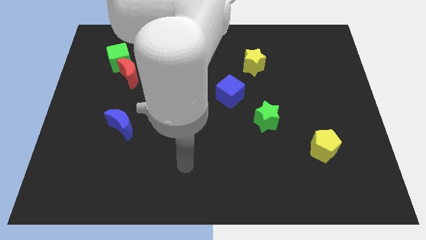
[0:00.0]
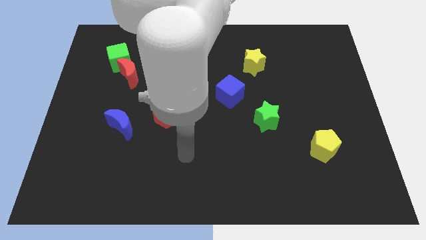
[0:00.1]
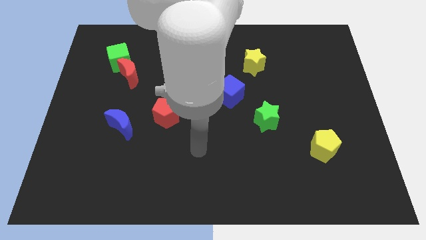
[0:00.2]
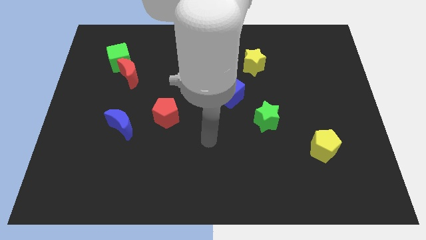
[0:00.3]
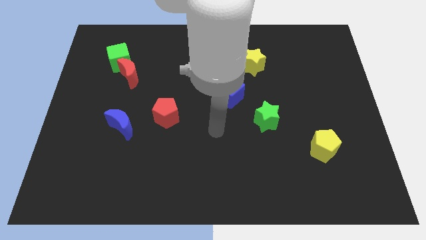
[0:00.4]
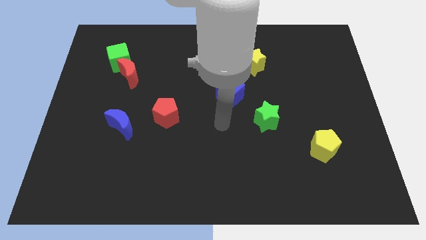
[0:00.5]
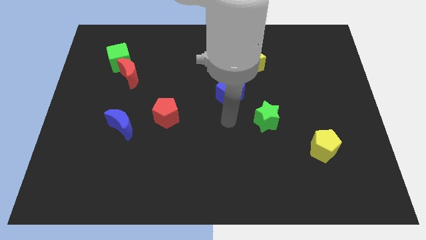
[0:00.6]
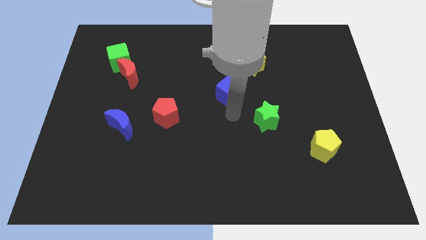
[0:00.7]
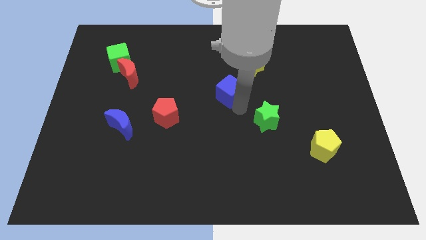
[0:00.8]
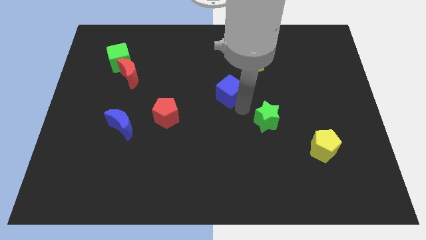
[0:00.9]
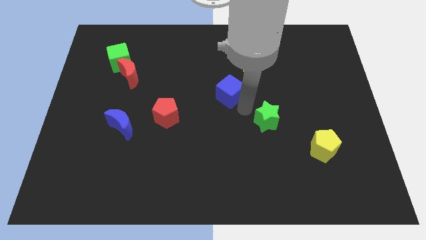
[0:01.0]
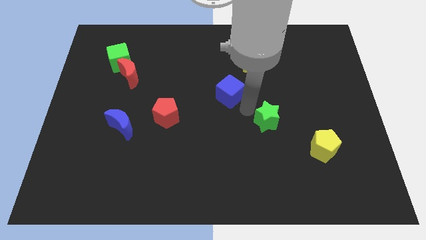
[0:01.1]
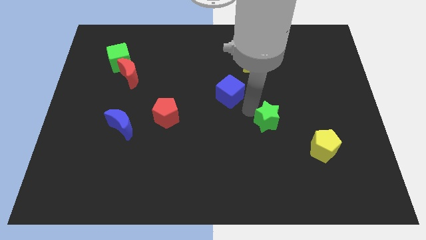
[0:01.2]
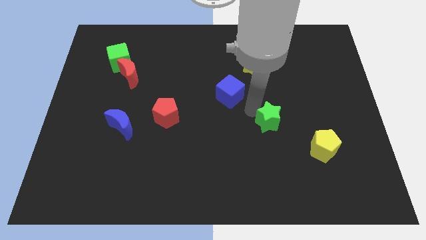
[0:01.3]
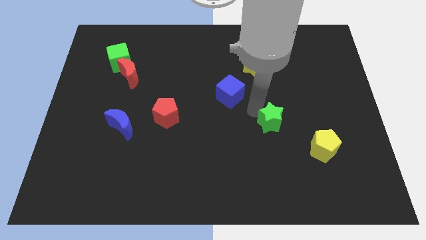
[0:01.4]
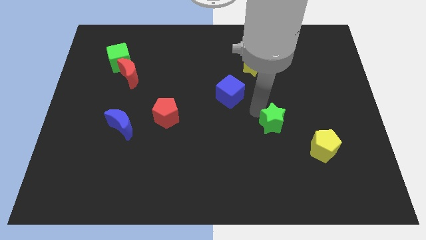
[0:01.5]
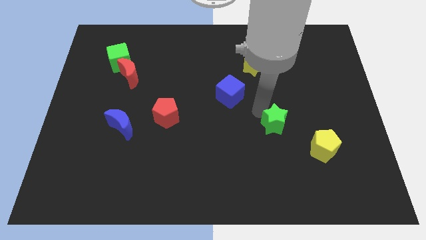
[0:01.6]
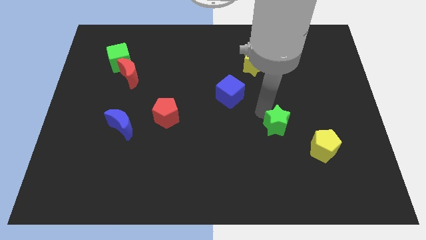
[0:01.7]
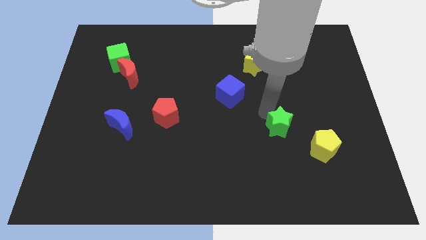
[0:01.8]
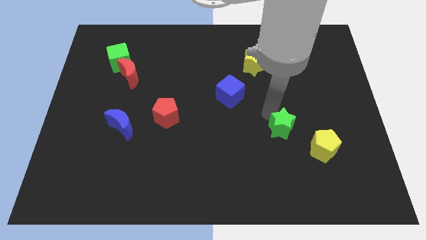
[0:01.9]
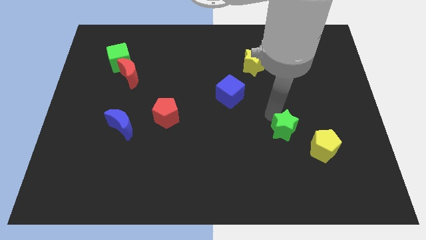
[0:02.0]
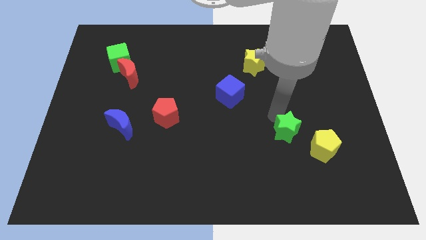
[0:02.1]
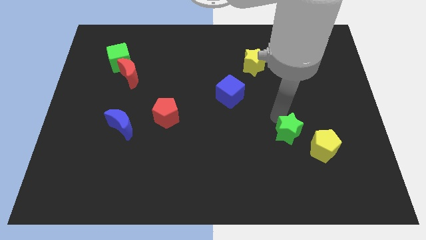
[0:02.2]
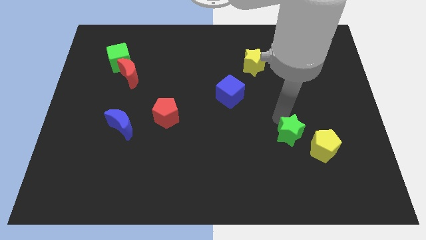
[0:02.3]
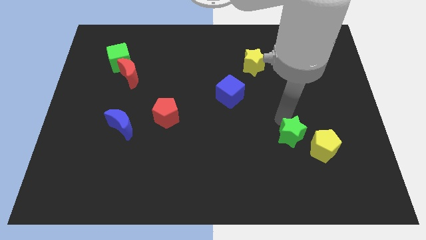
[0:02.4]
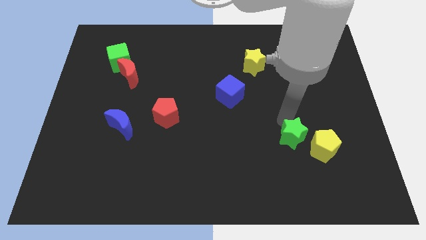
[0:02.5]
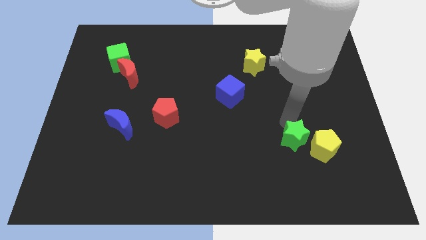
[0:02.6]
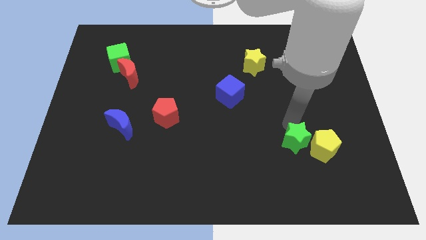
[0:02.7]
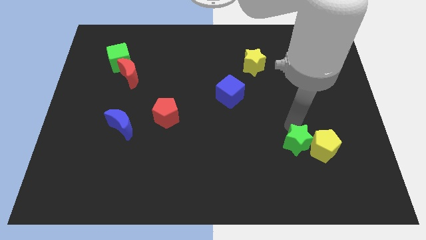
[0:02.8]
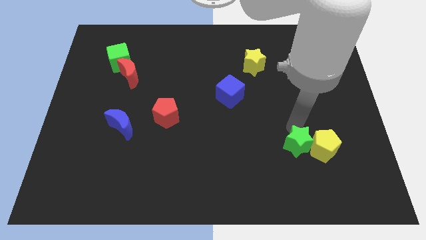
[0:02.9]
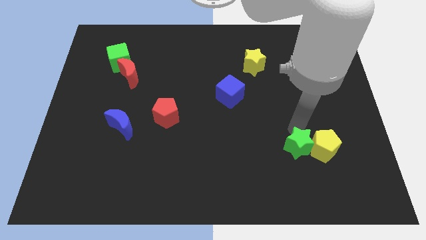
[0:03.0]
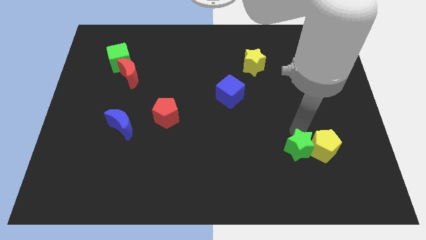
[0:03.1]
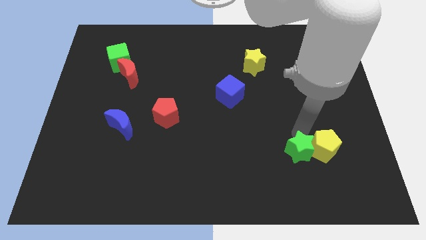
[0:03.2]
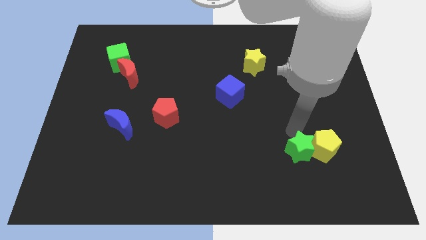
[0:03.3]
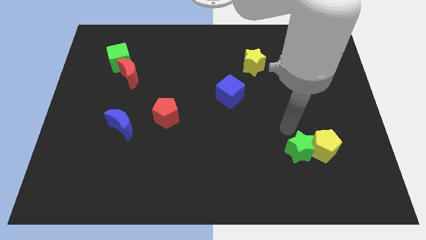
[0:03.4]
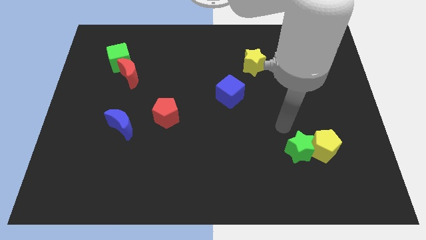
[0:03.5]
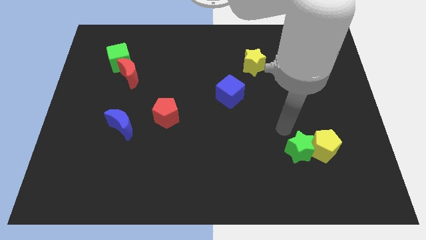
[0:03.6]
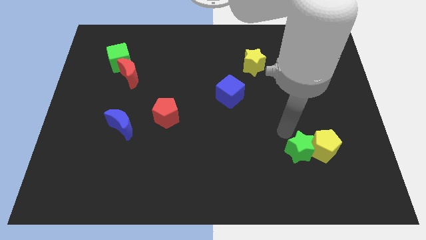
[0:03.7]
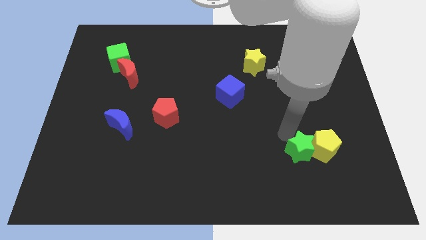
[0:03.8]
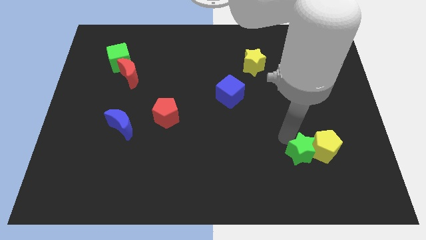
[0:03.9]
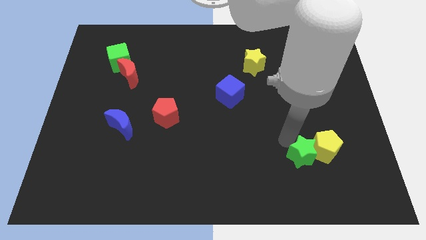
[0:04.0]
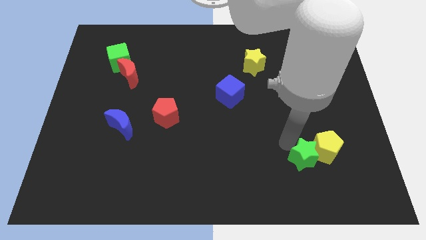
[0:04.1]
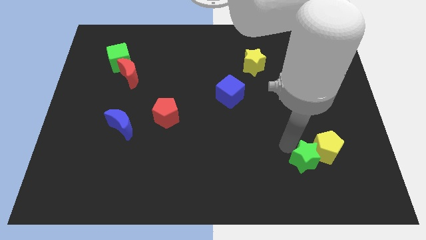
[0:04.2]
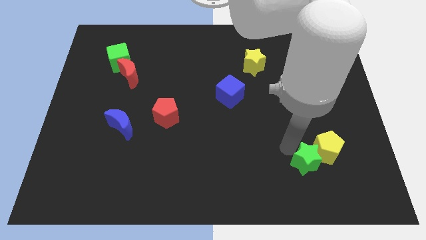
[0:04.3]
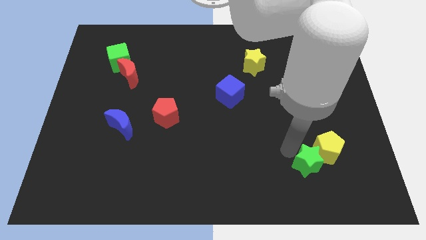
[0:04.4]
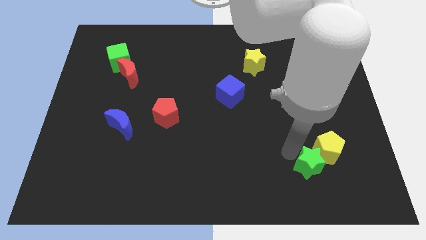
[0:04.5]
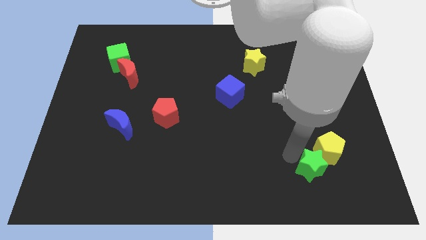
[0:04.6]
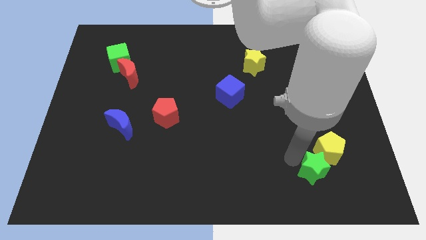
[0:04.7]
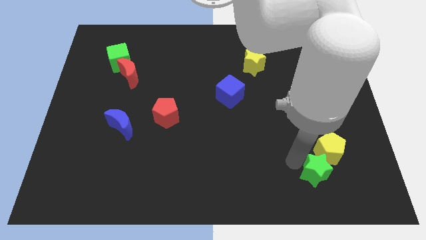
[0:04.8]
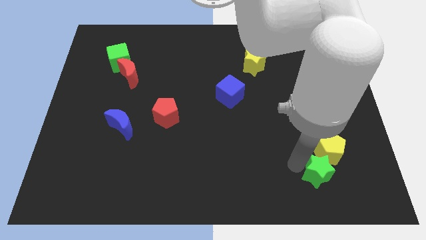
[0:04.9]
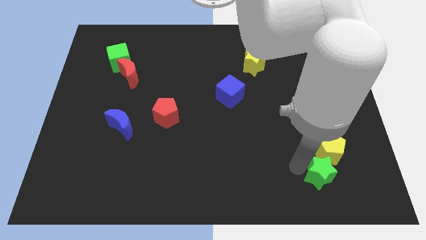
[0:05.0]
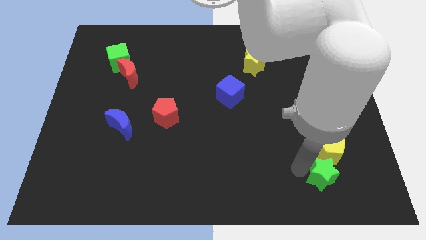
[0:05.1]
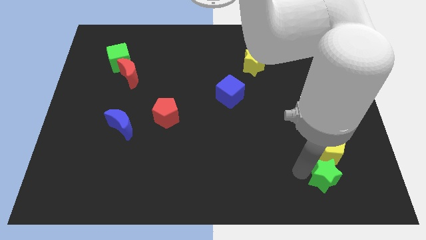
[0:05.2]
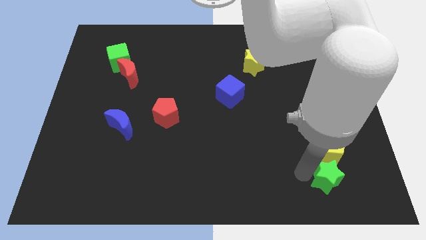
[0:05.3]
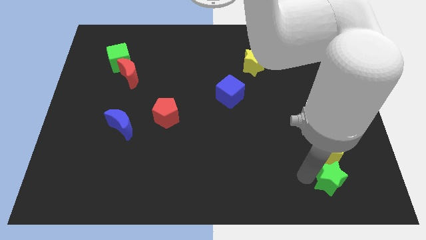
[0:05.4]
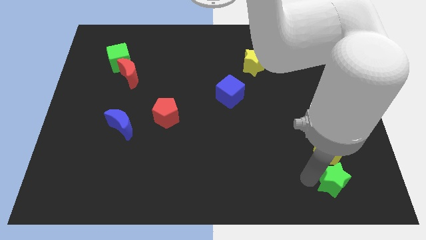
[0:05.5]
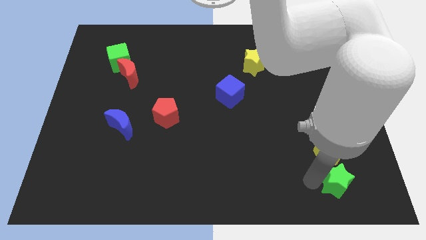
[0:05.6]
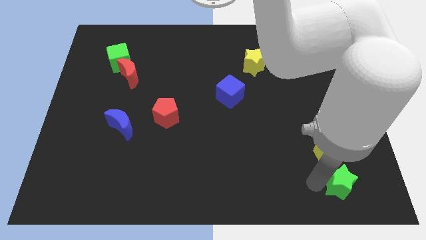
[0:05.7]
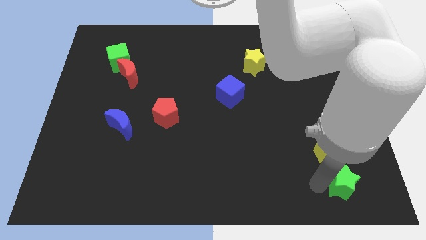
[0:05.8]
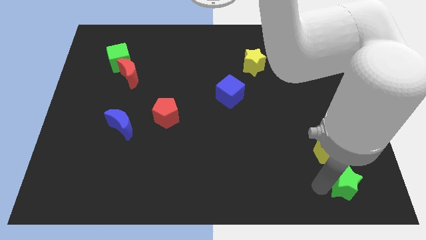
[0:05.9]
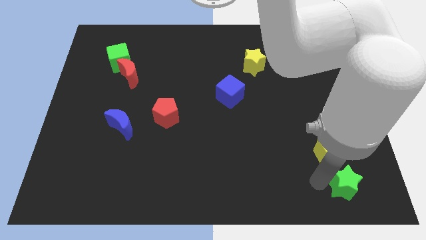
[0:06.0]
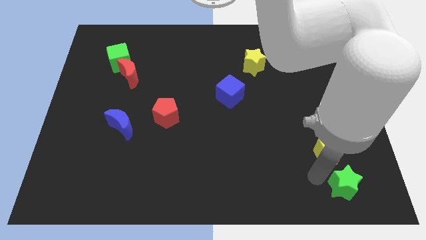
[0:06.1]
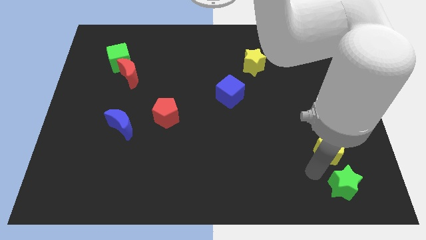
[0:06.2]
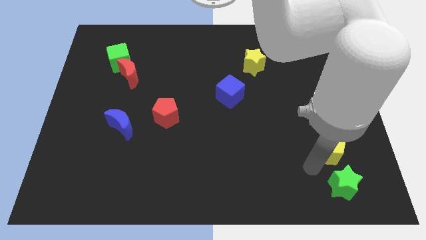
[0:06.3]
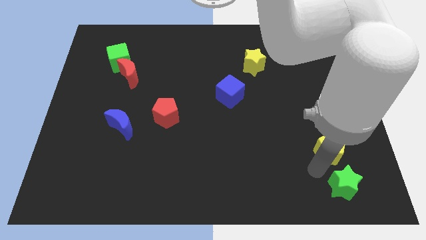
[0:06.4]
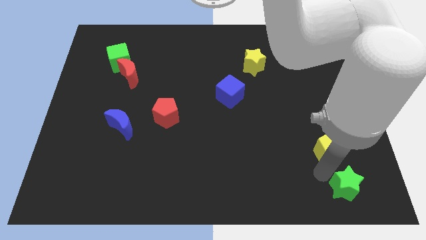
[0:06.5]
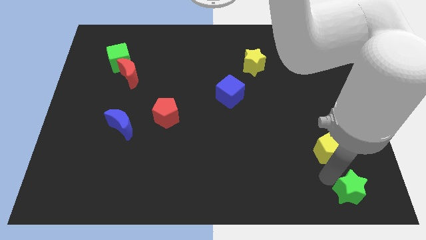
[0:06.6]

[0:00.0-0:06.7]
move the green star to the lower right corner

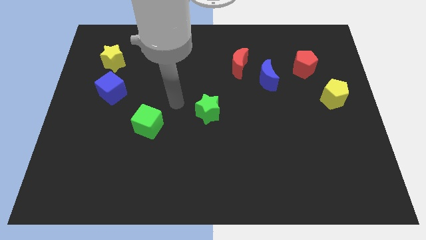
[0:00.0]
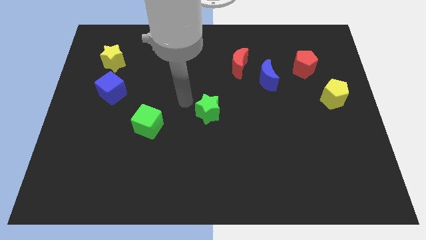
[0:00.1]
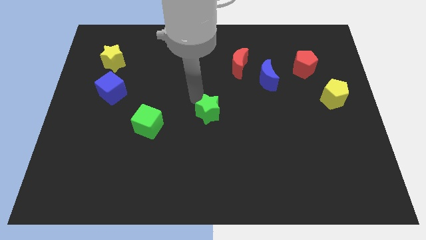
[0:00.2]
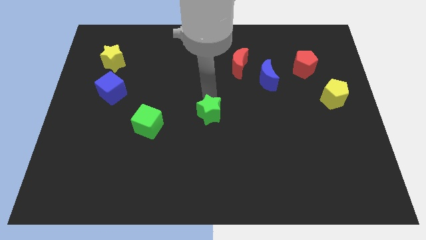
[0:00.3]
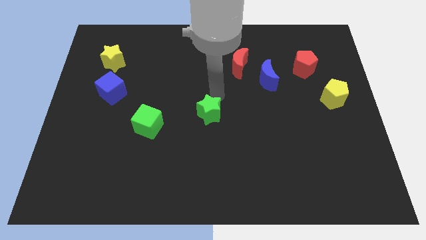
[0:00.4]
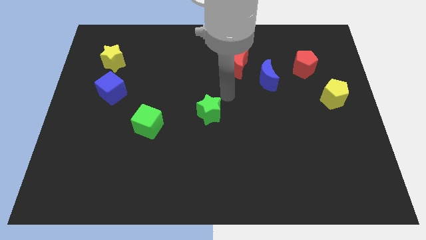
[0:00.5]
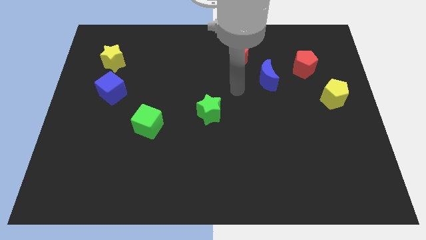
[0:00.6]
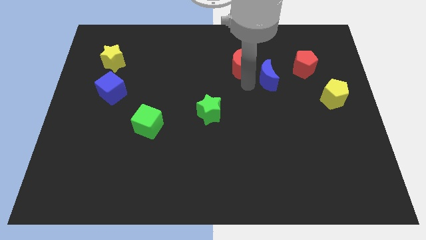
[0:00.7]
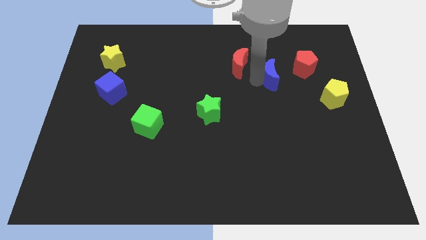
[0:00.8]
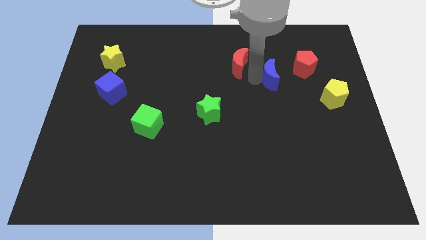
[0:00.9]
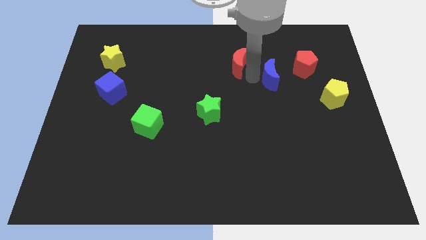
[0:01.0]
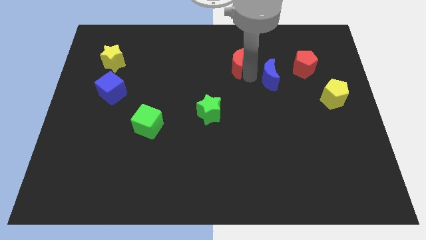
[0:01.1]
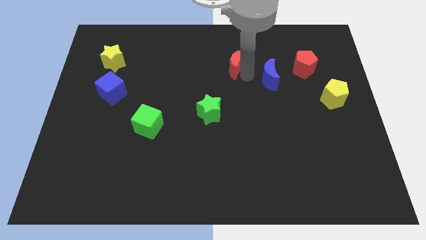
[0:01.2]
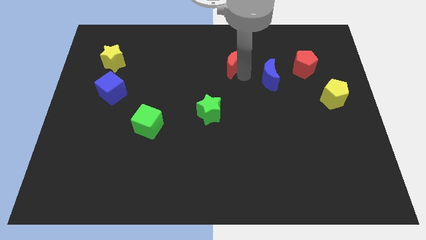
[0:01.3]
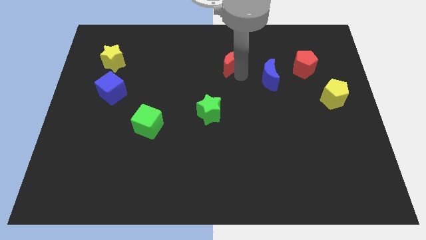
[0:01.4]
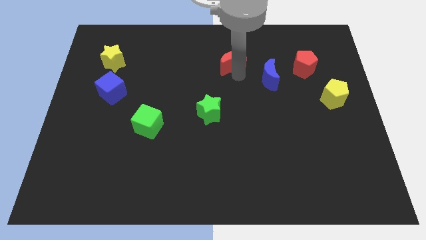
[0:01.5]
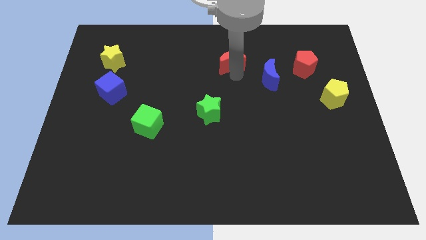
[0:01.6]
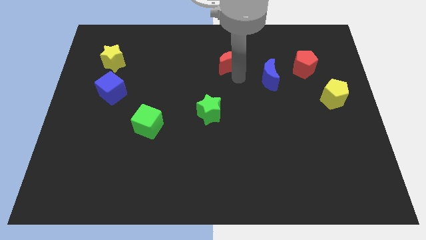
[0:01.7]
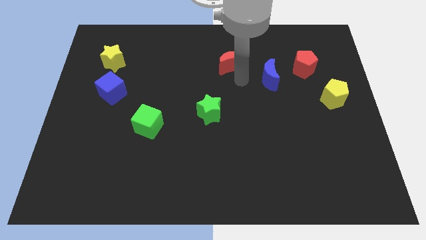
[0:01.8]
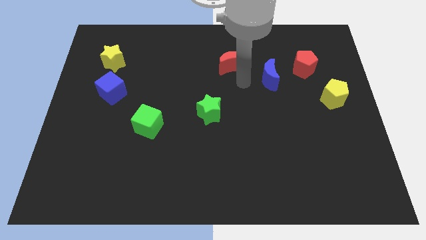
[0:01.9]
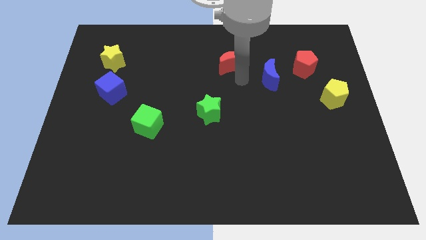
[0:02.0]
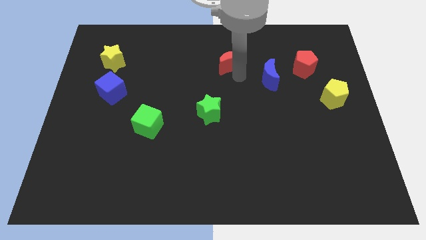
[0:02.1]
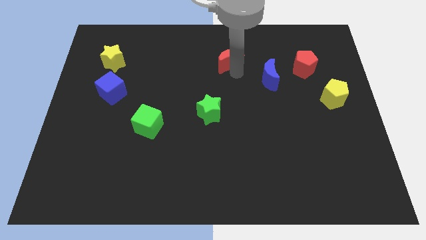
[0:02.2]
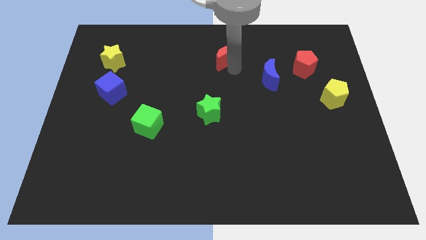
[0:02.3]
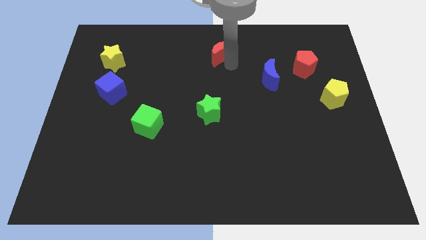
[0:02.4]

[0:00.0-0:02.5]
push the red moon to the top side
